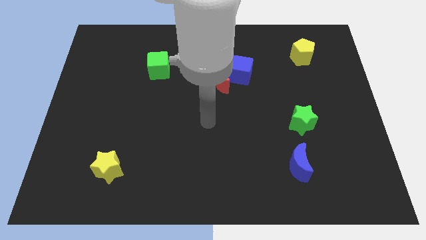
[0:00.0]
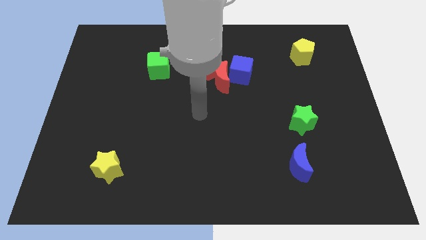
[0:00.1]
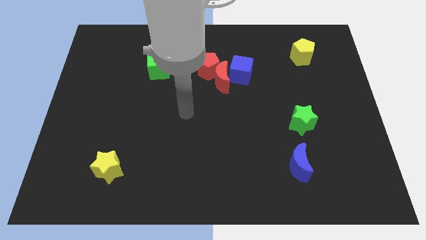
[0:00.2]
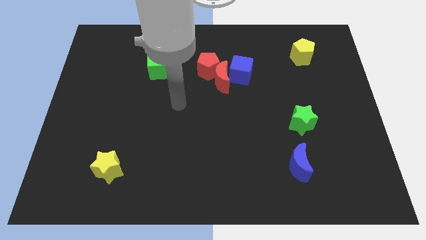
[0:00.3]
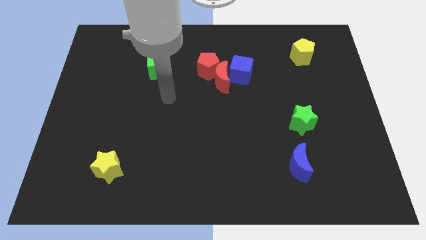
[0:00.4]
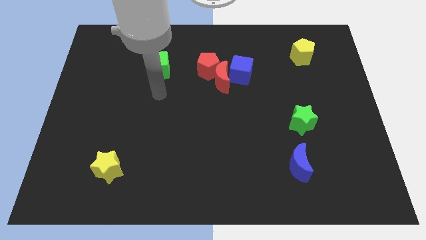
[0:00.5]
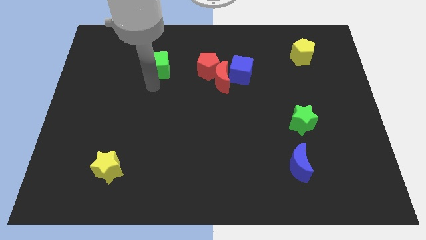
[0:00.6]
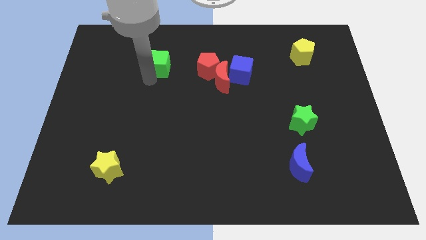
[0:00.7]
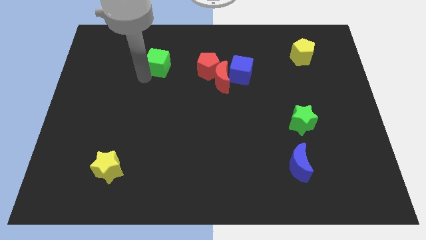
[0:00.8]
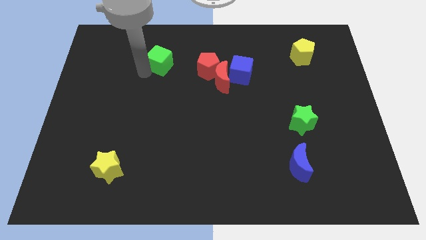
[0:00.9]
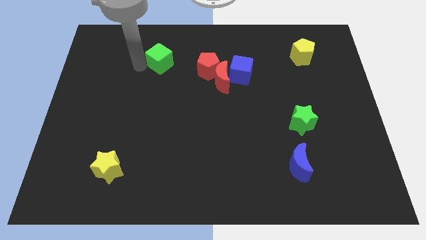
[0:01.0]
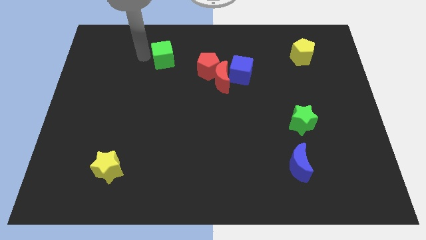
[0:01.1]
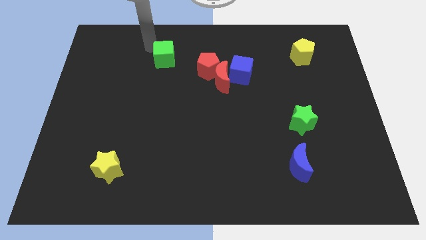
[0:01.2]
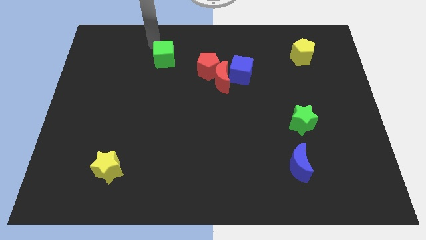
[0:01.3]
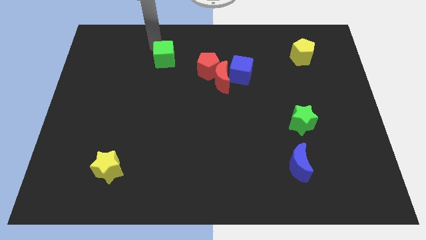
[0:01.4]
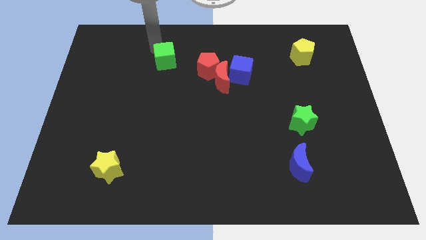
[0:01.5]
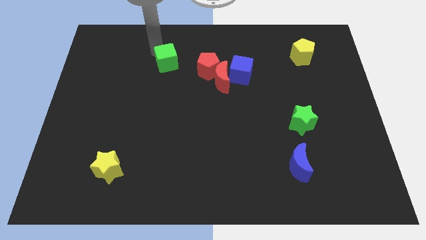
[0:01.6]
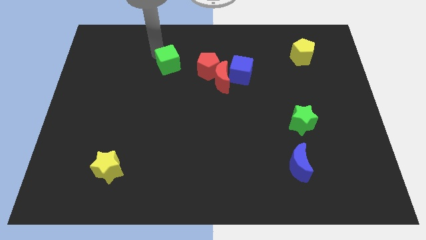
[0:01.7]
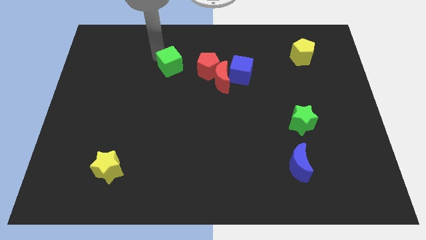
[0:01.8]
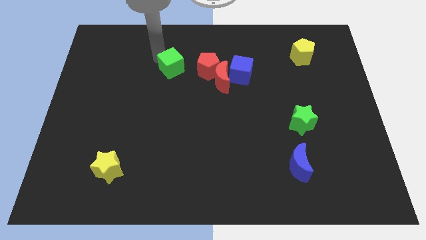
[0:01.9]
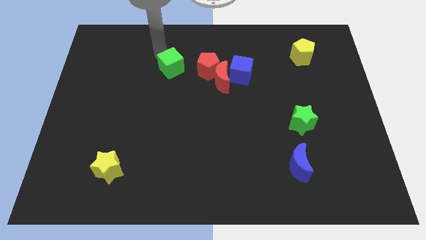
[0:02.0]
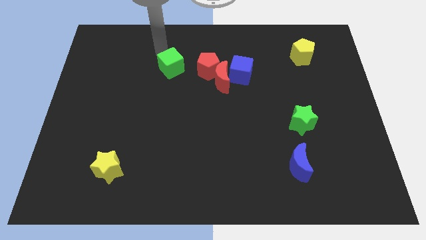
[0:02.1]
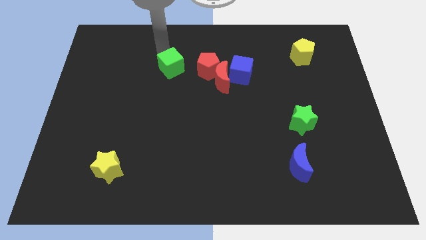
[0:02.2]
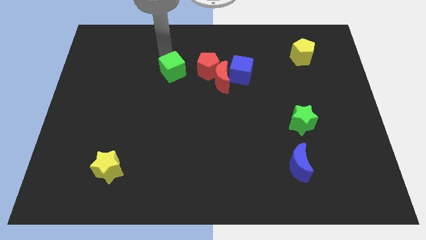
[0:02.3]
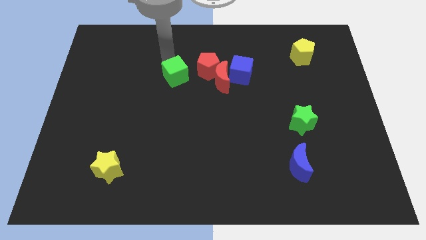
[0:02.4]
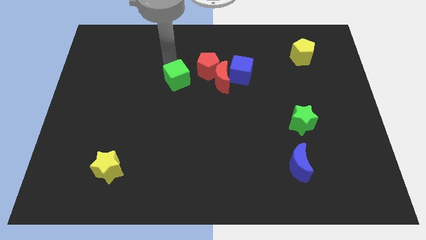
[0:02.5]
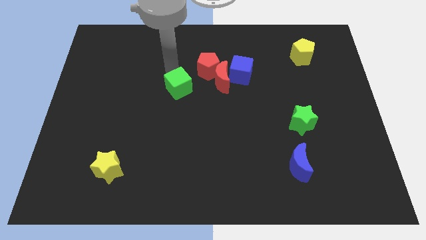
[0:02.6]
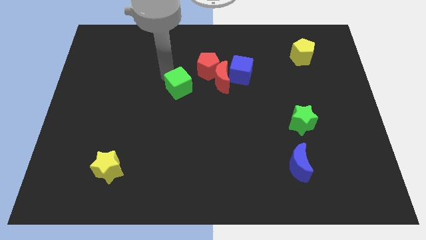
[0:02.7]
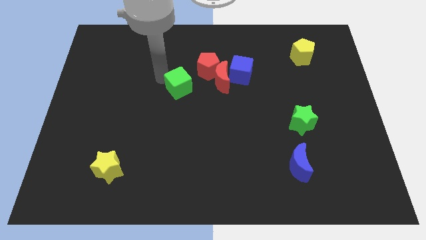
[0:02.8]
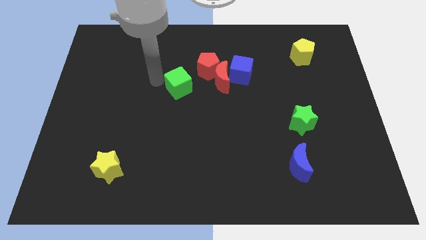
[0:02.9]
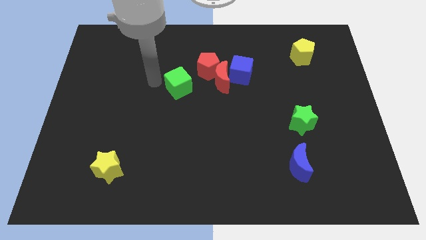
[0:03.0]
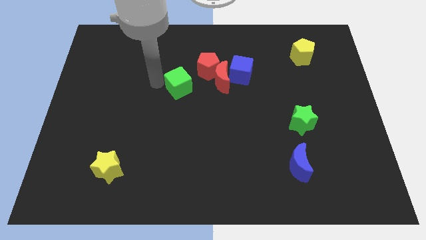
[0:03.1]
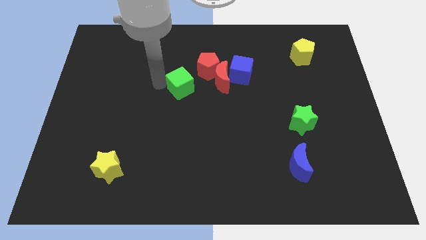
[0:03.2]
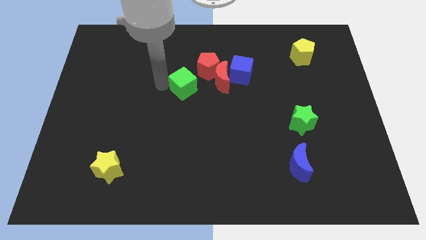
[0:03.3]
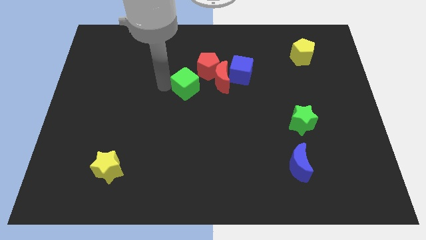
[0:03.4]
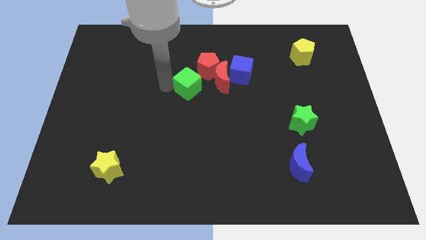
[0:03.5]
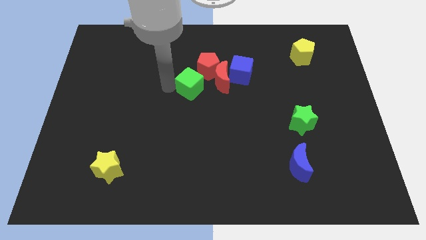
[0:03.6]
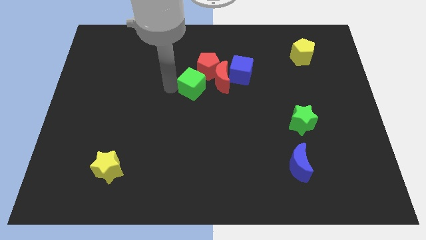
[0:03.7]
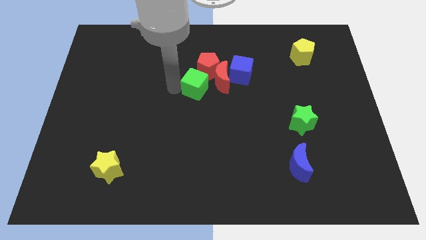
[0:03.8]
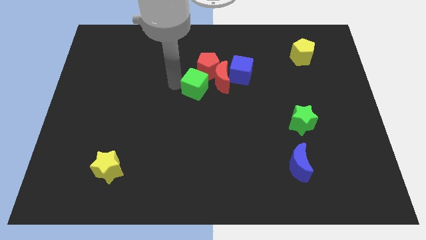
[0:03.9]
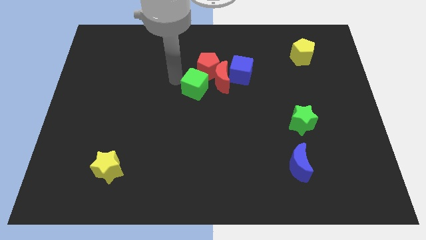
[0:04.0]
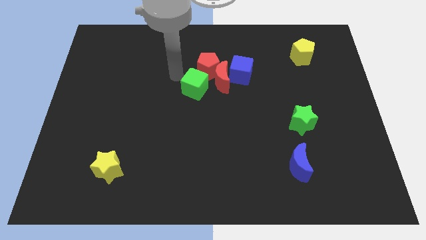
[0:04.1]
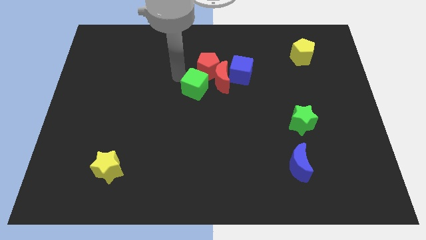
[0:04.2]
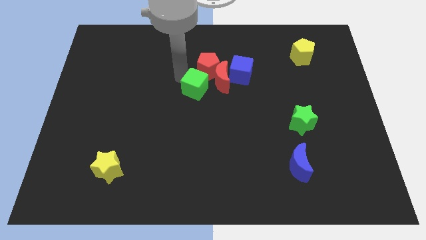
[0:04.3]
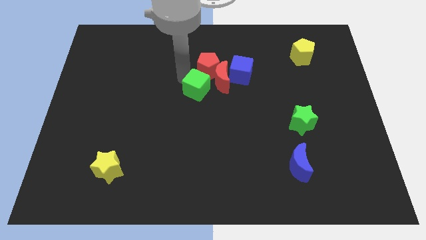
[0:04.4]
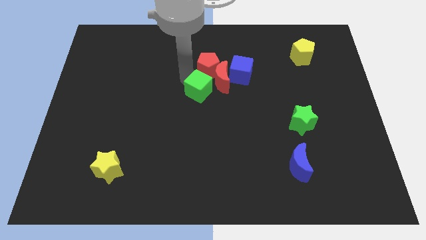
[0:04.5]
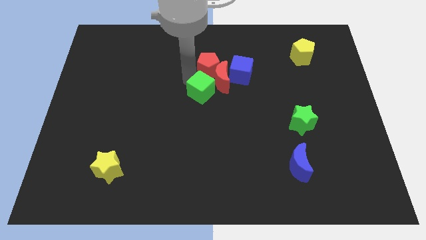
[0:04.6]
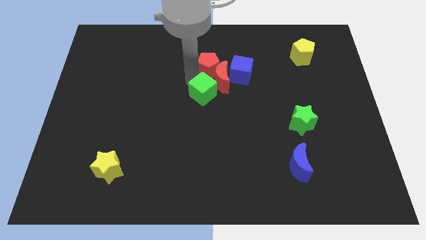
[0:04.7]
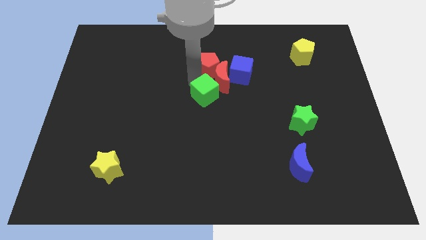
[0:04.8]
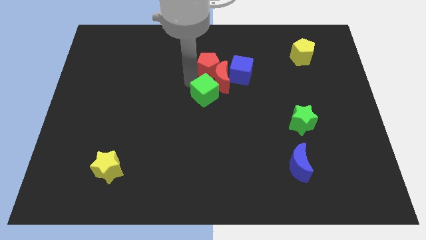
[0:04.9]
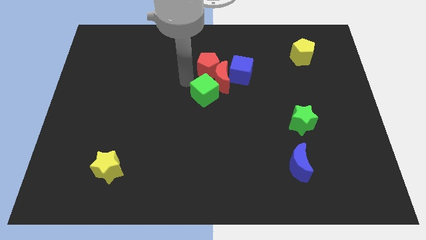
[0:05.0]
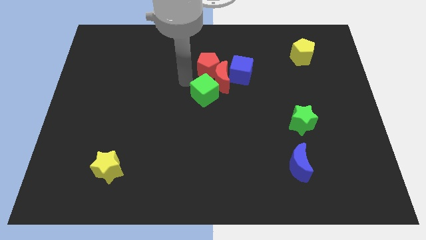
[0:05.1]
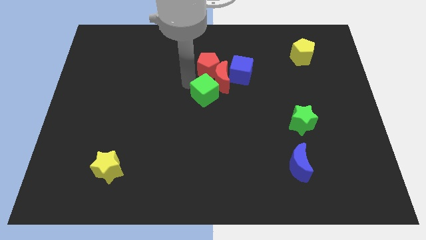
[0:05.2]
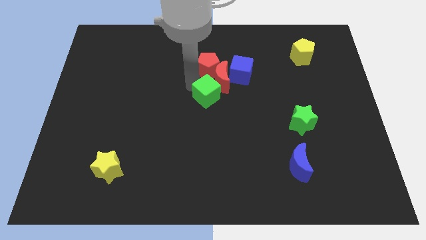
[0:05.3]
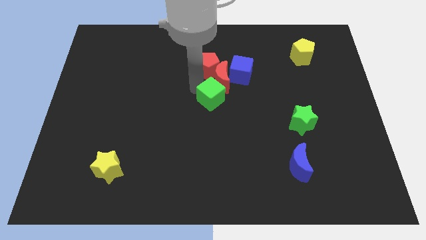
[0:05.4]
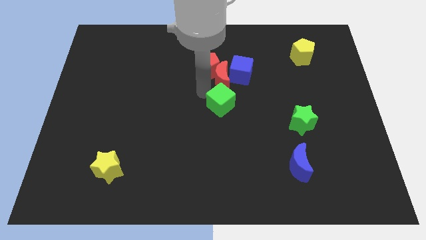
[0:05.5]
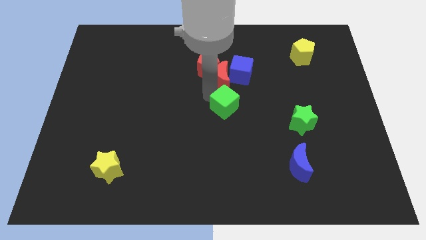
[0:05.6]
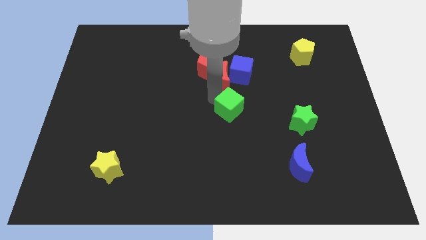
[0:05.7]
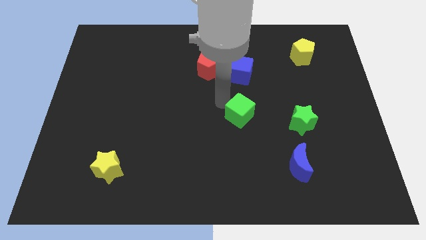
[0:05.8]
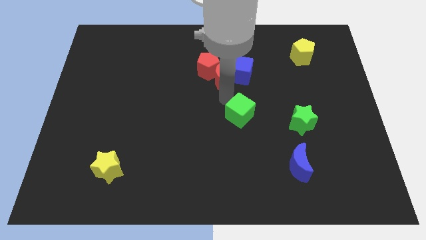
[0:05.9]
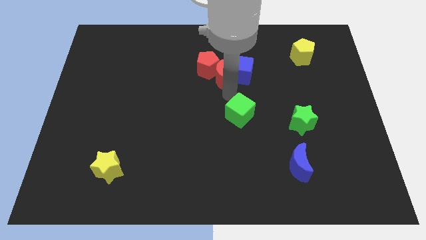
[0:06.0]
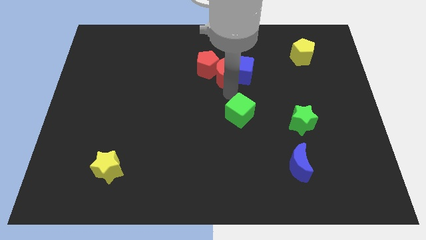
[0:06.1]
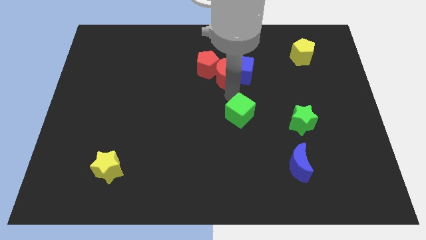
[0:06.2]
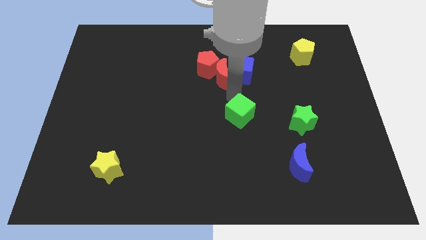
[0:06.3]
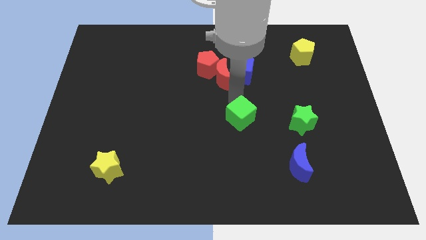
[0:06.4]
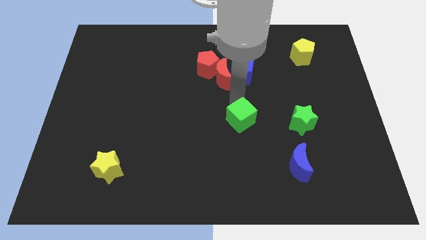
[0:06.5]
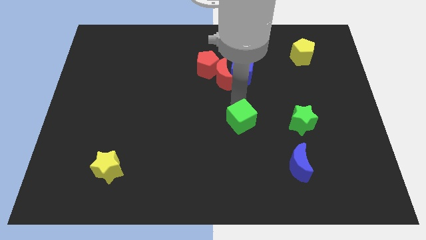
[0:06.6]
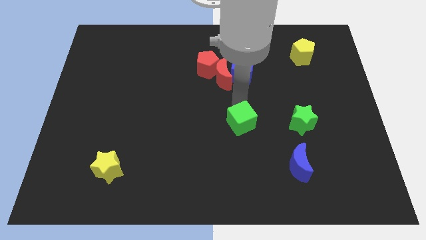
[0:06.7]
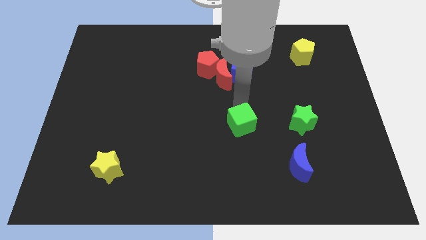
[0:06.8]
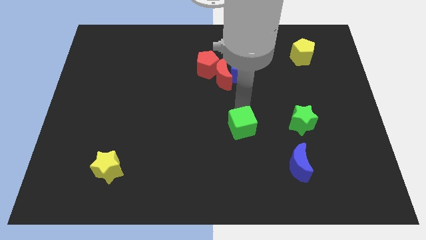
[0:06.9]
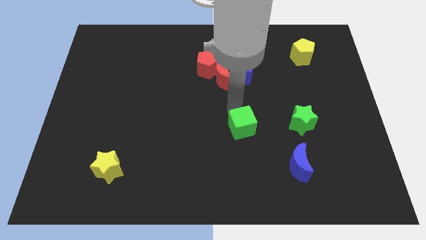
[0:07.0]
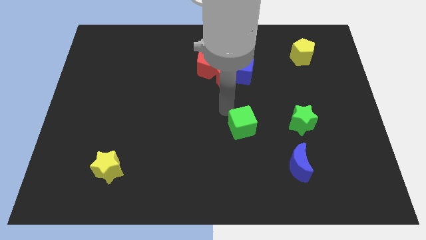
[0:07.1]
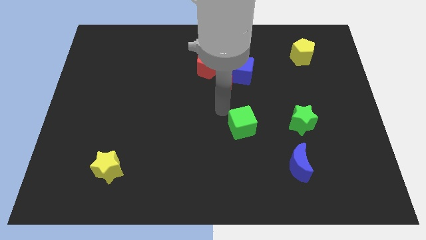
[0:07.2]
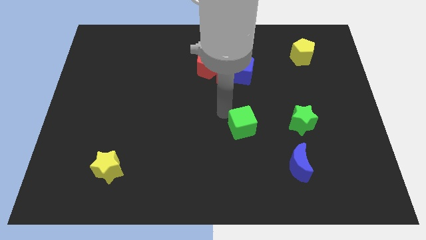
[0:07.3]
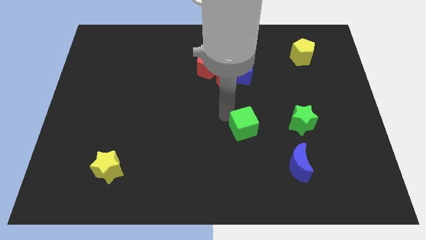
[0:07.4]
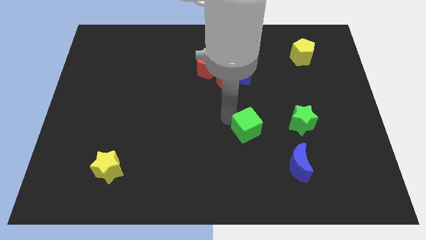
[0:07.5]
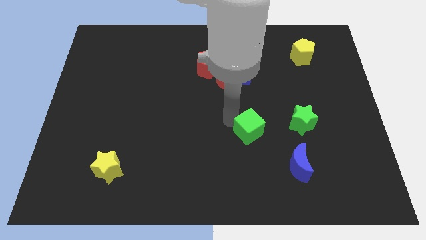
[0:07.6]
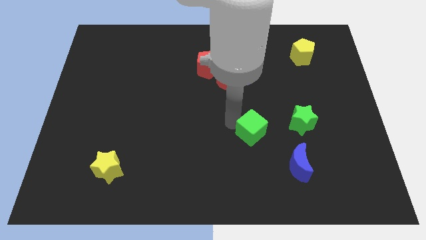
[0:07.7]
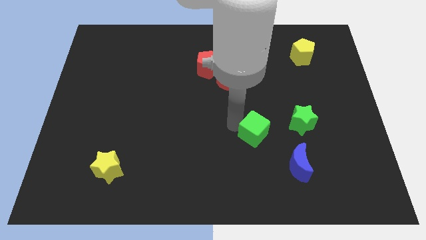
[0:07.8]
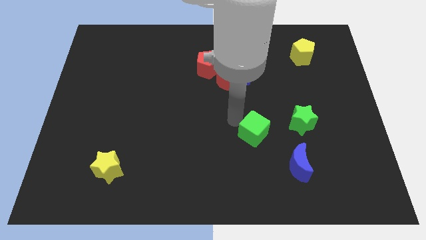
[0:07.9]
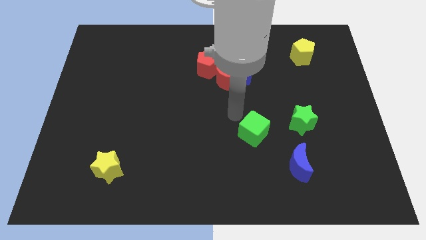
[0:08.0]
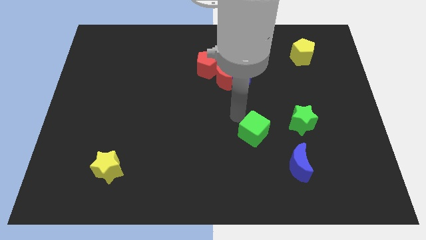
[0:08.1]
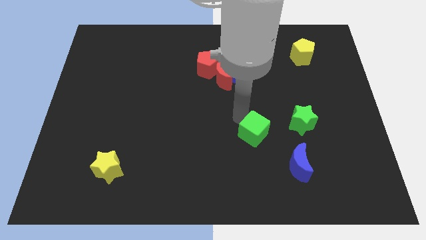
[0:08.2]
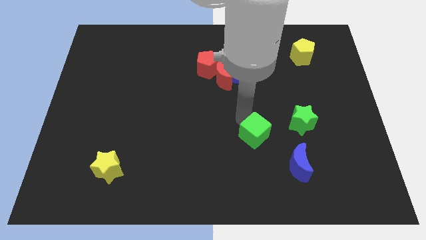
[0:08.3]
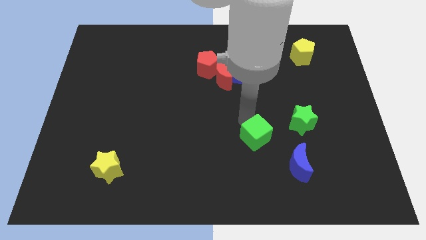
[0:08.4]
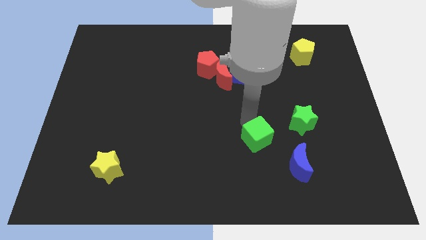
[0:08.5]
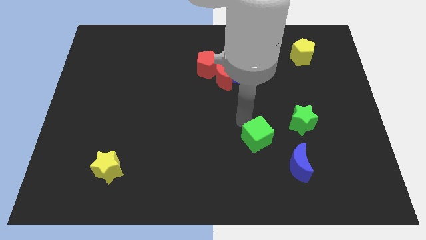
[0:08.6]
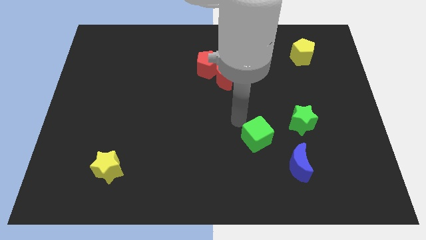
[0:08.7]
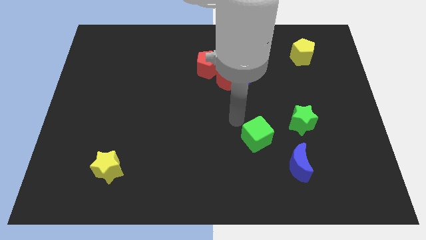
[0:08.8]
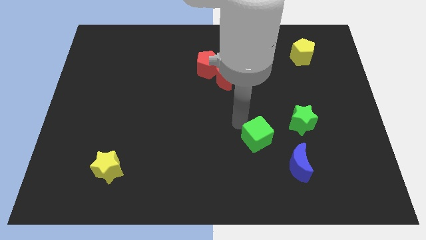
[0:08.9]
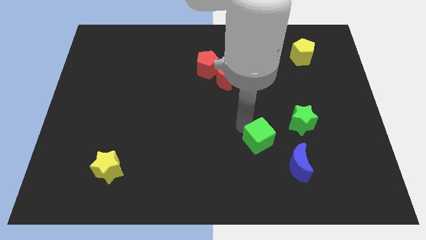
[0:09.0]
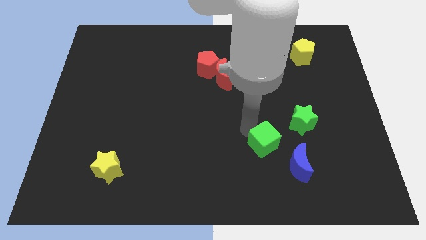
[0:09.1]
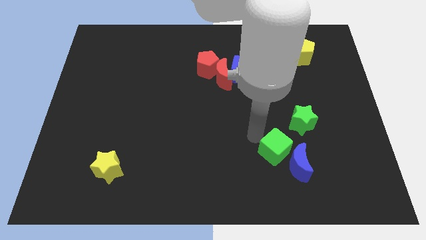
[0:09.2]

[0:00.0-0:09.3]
move the green cube next to the blue moon
